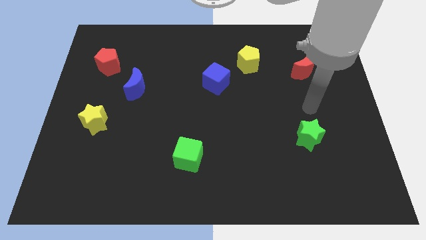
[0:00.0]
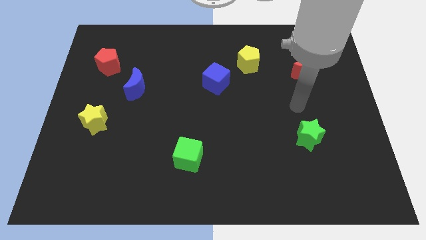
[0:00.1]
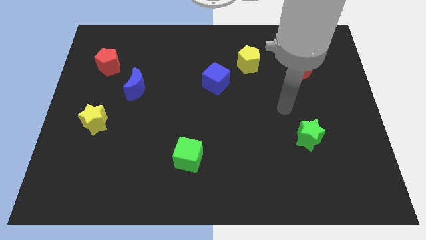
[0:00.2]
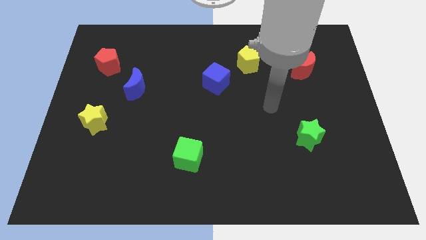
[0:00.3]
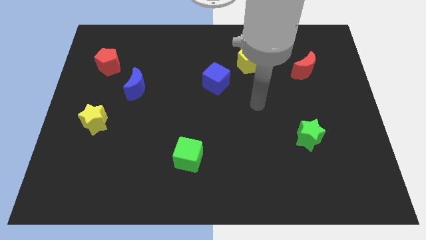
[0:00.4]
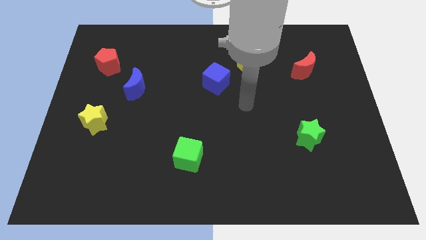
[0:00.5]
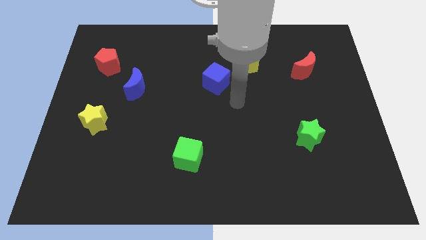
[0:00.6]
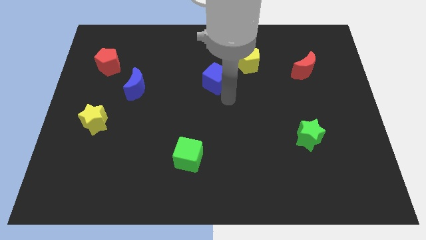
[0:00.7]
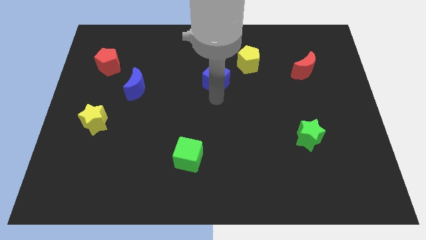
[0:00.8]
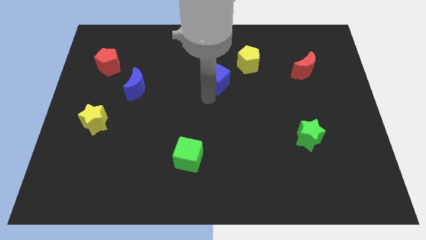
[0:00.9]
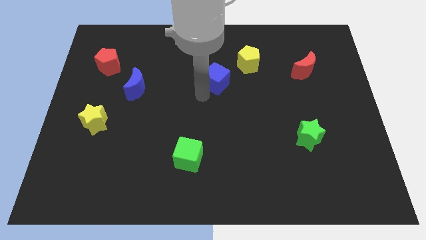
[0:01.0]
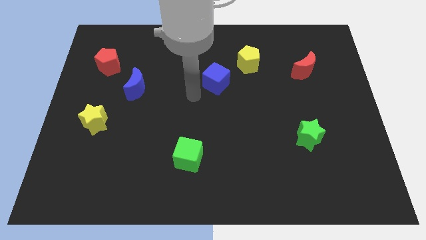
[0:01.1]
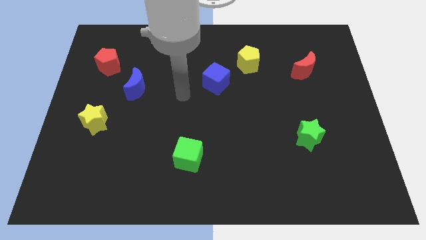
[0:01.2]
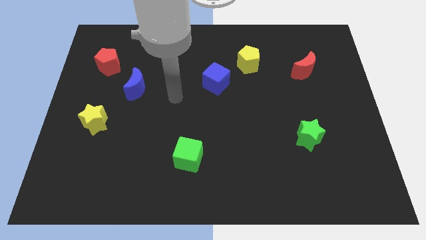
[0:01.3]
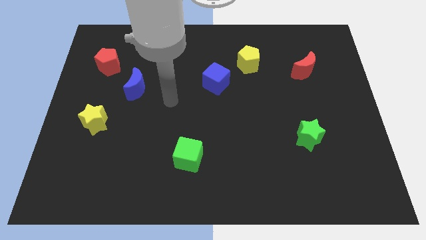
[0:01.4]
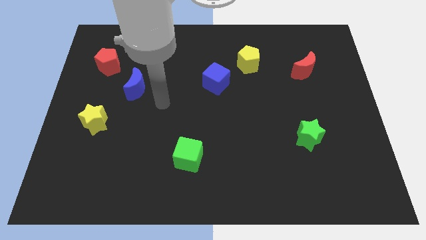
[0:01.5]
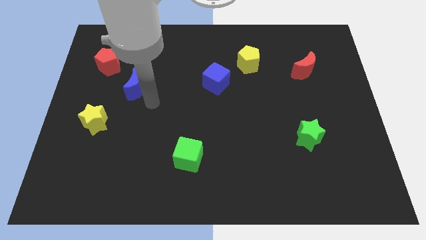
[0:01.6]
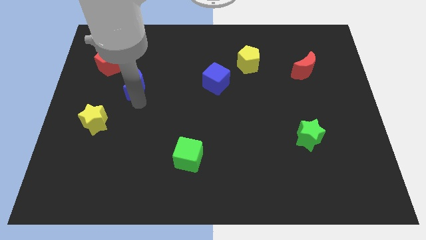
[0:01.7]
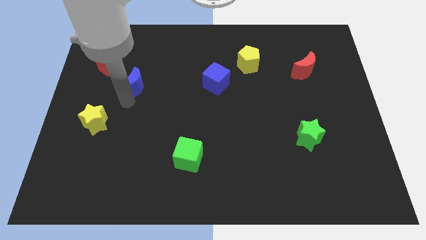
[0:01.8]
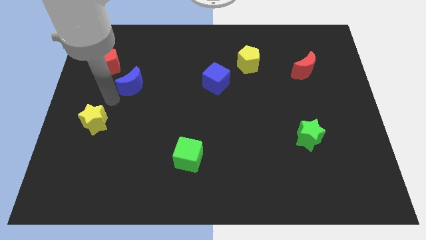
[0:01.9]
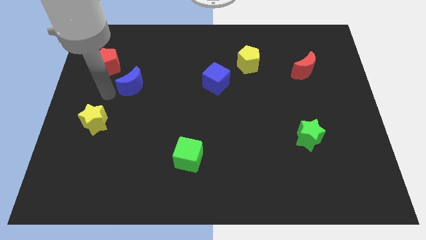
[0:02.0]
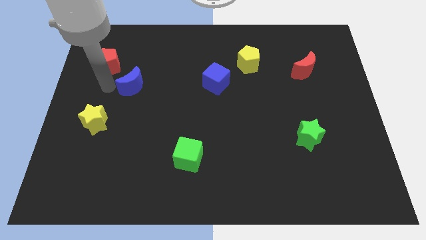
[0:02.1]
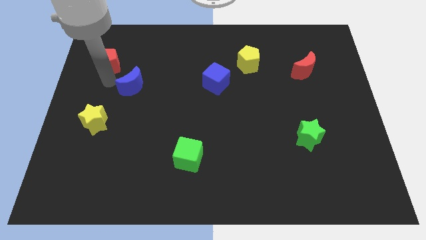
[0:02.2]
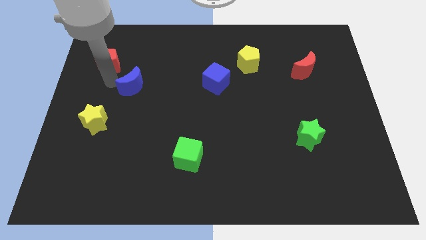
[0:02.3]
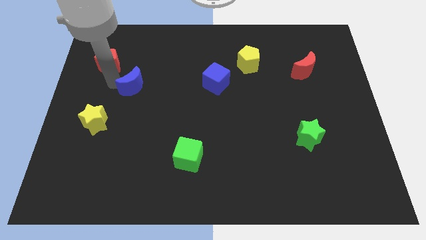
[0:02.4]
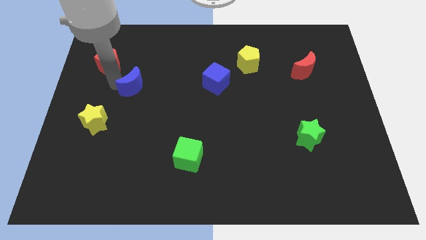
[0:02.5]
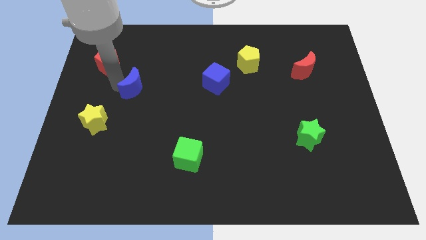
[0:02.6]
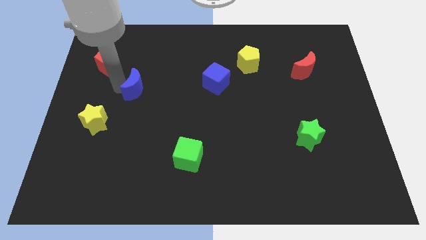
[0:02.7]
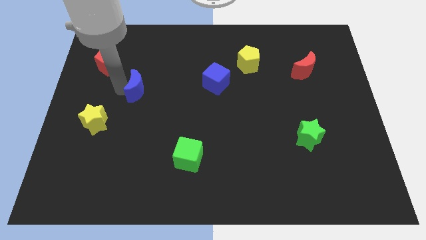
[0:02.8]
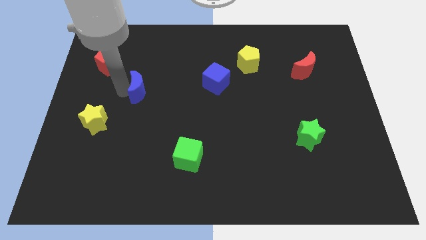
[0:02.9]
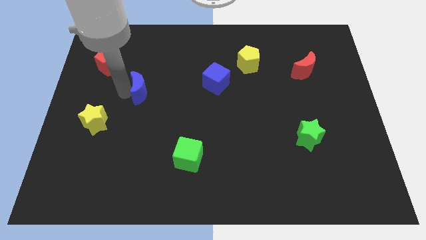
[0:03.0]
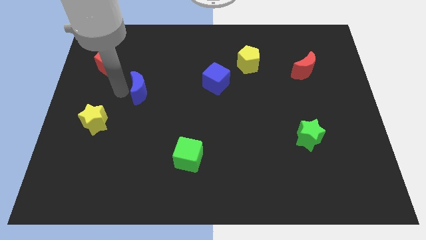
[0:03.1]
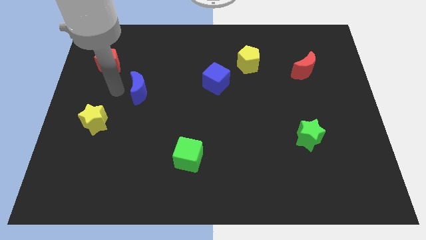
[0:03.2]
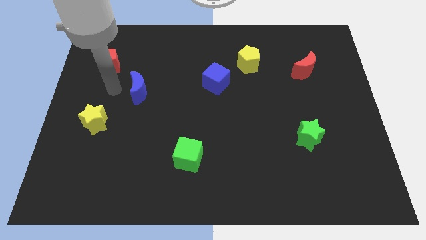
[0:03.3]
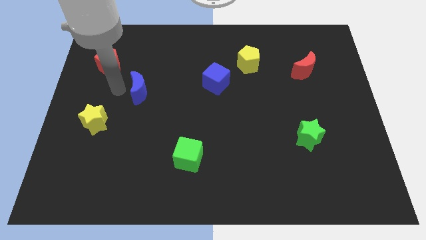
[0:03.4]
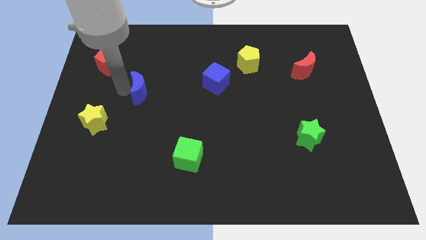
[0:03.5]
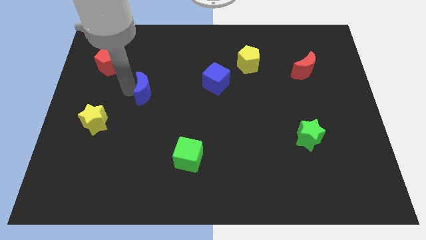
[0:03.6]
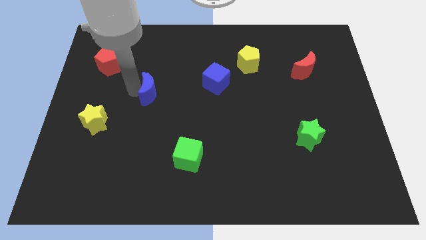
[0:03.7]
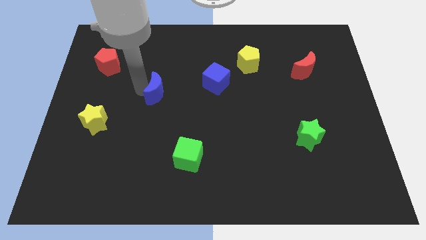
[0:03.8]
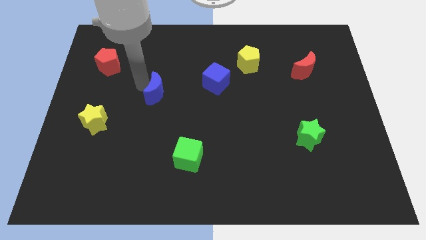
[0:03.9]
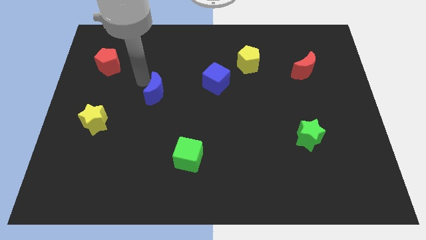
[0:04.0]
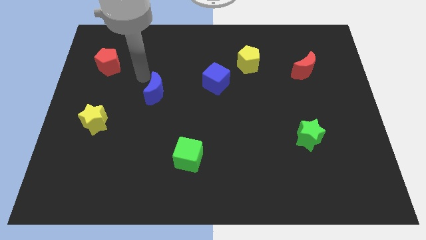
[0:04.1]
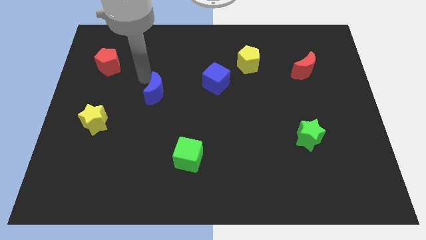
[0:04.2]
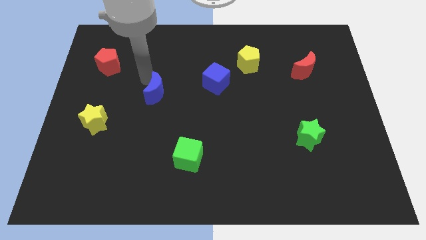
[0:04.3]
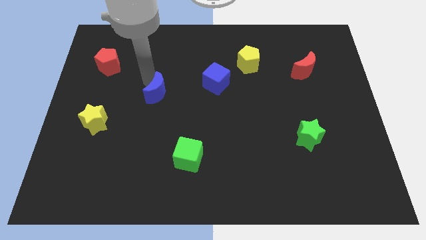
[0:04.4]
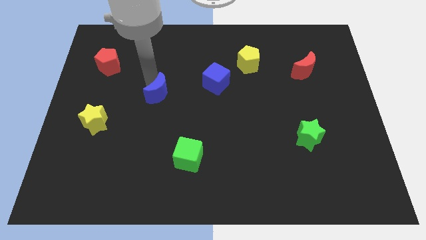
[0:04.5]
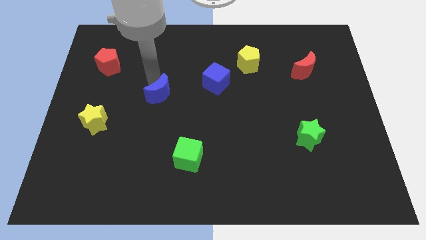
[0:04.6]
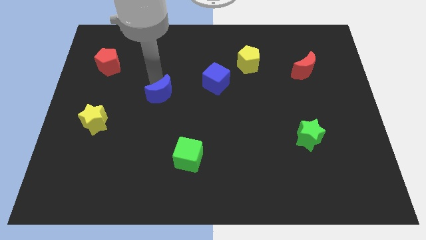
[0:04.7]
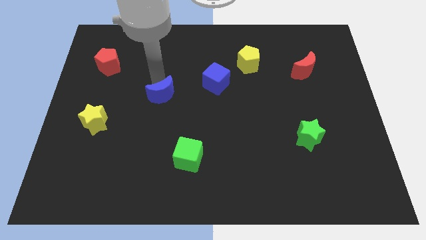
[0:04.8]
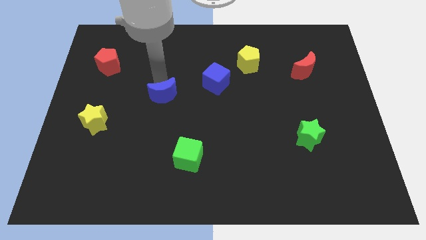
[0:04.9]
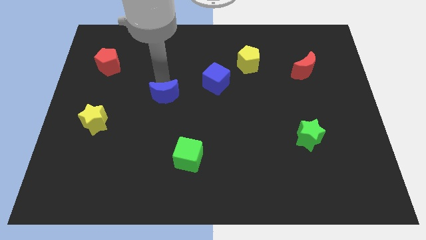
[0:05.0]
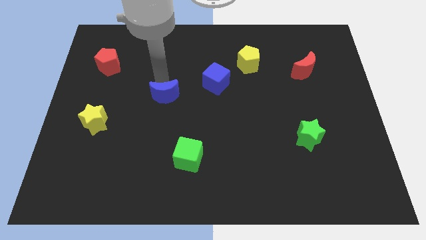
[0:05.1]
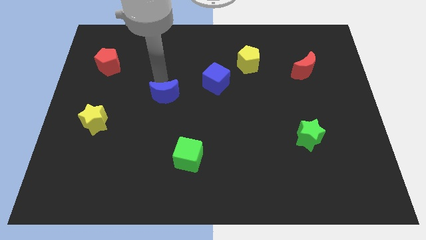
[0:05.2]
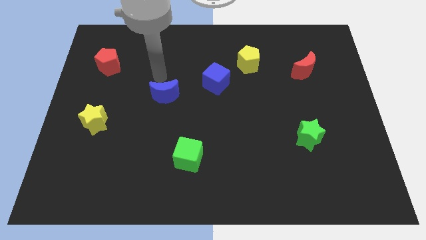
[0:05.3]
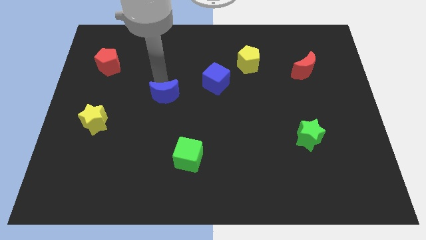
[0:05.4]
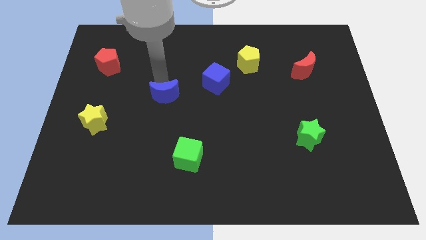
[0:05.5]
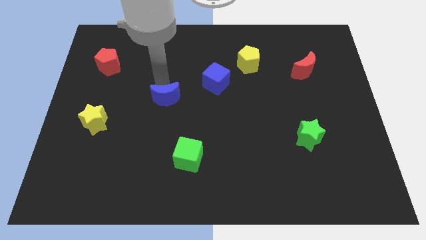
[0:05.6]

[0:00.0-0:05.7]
slightly move the blue moon diagonally downwards and right

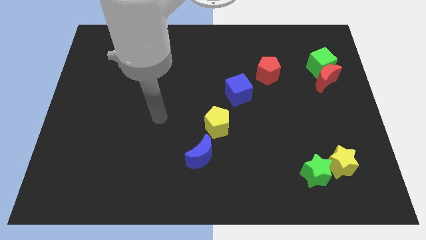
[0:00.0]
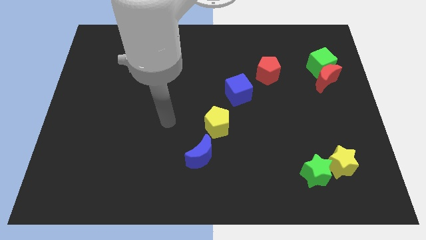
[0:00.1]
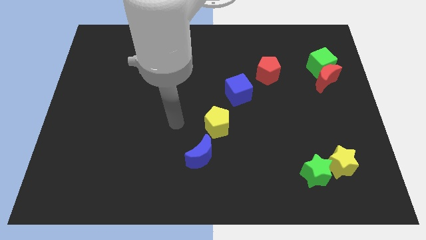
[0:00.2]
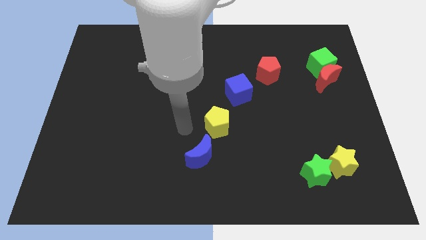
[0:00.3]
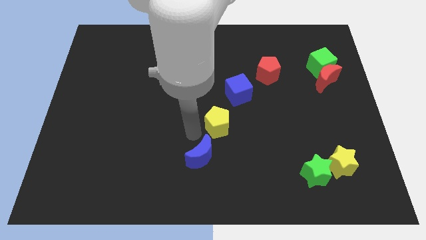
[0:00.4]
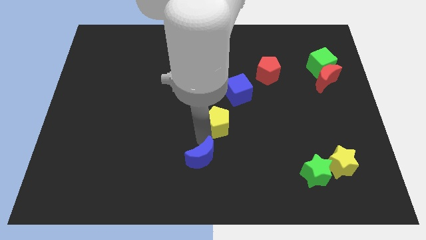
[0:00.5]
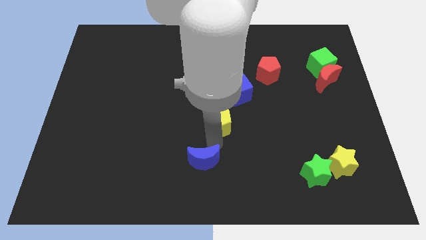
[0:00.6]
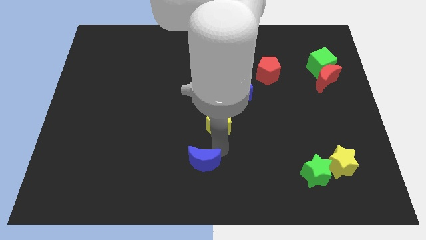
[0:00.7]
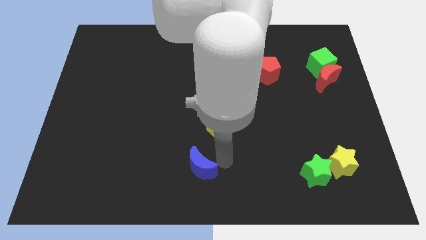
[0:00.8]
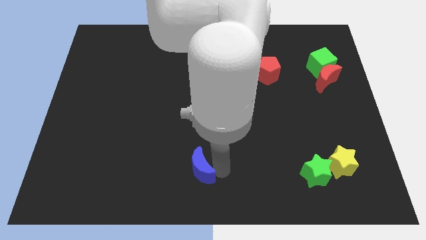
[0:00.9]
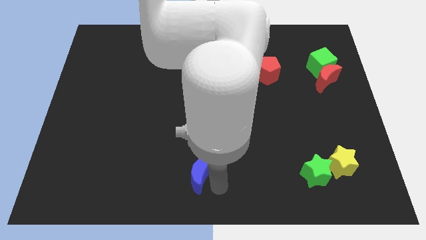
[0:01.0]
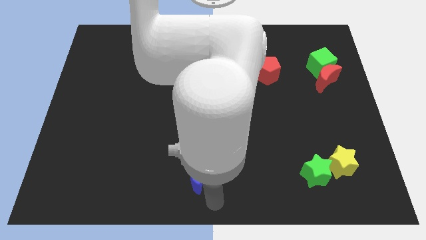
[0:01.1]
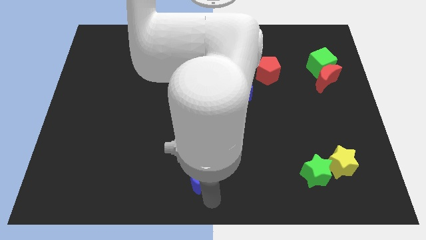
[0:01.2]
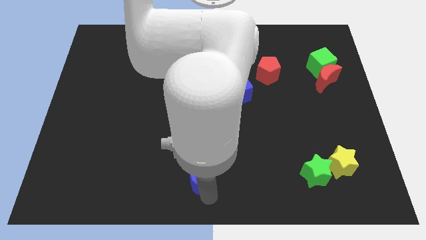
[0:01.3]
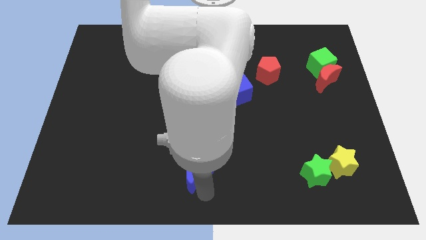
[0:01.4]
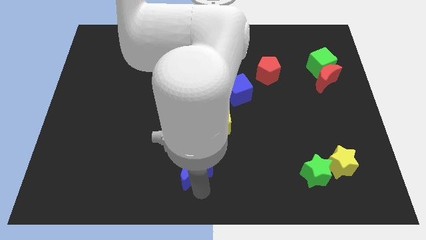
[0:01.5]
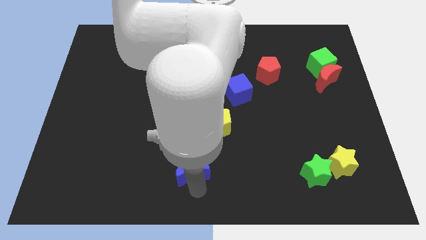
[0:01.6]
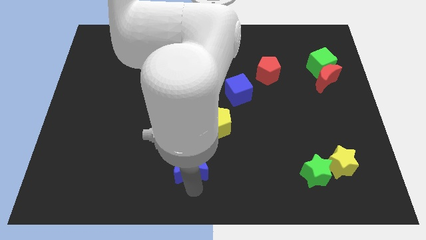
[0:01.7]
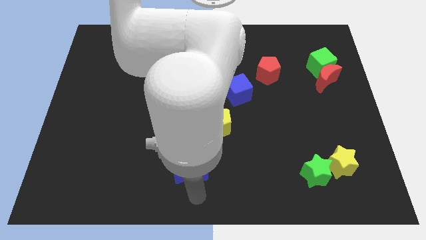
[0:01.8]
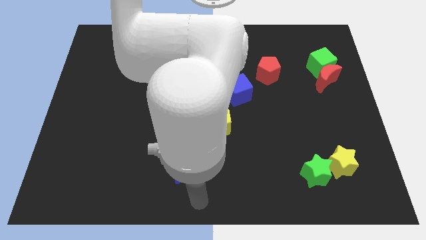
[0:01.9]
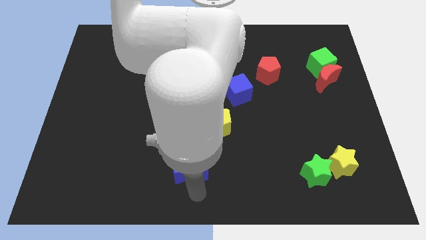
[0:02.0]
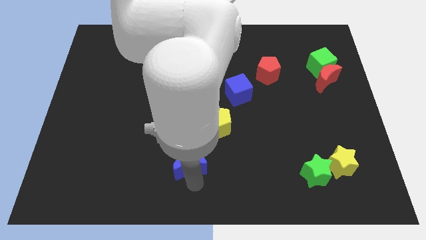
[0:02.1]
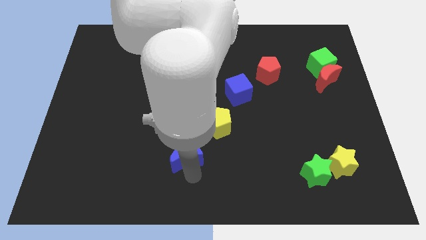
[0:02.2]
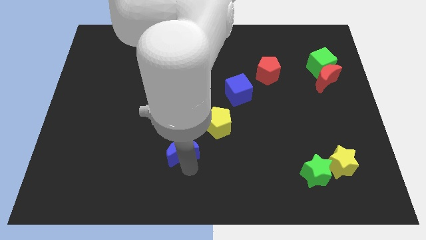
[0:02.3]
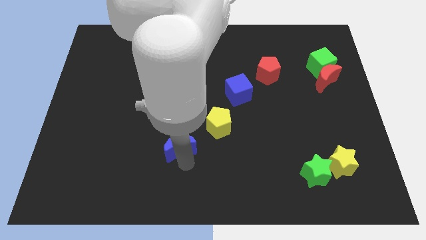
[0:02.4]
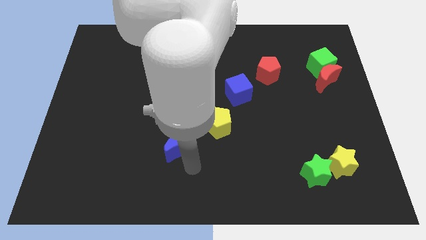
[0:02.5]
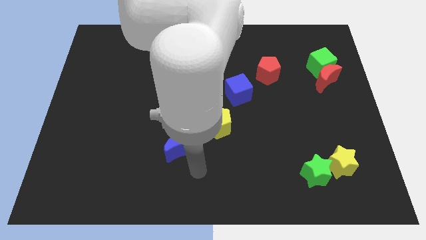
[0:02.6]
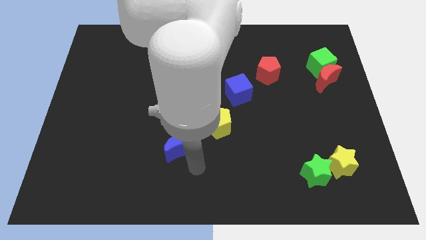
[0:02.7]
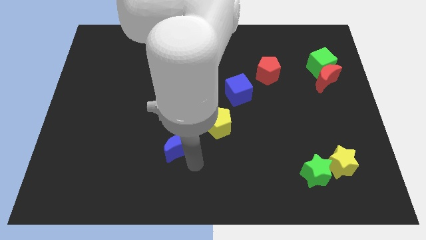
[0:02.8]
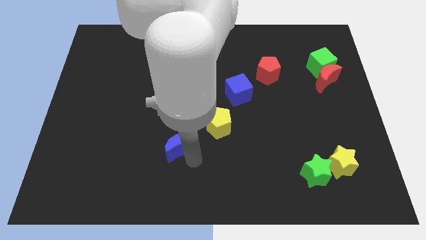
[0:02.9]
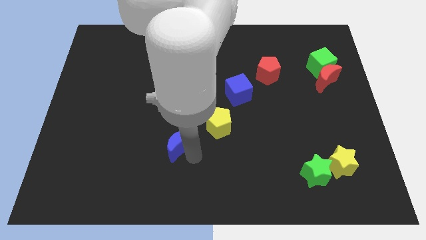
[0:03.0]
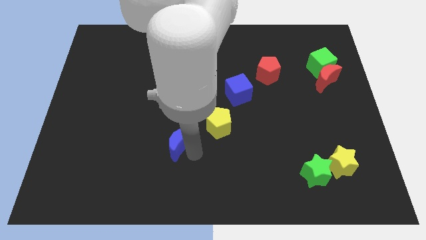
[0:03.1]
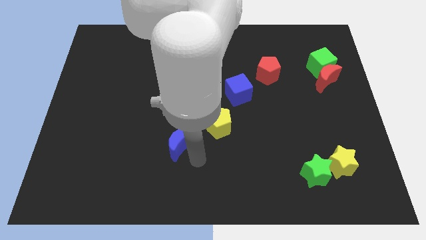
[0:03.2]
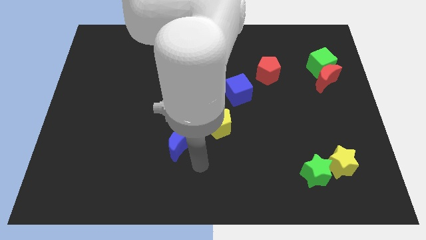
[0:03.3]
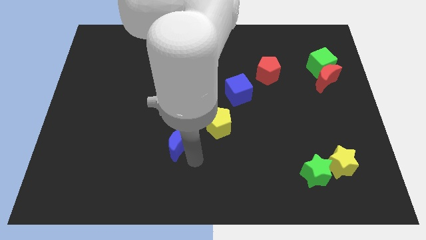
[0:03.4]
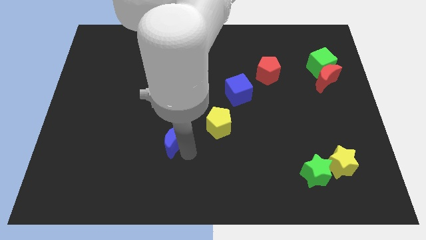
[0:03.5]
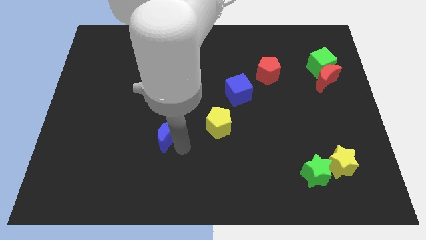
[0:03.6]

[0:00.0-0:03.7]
move the blue moon up and to the left diagonally a bit
